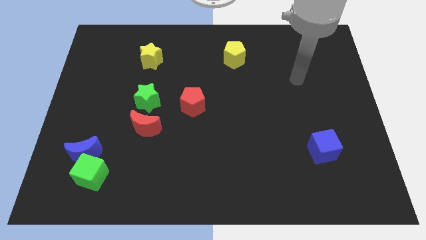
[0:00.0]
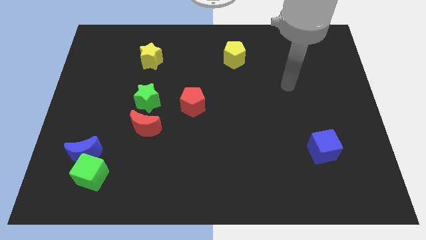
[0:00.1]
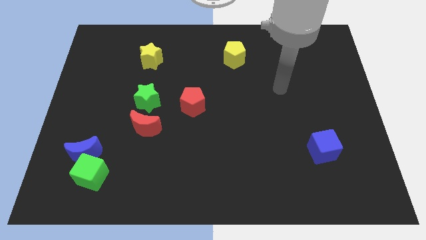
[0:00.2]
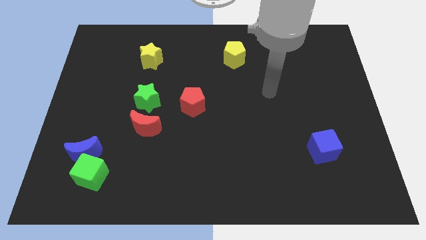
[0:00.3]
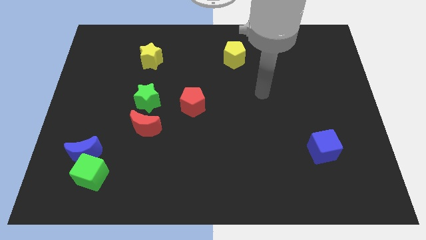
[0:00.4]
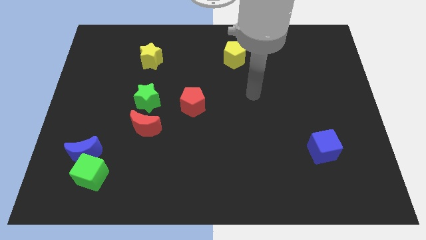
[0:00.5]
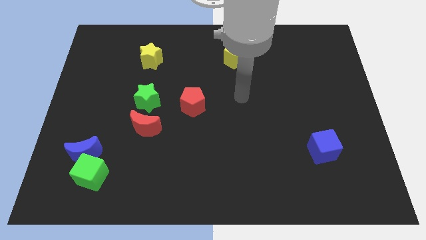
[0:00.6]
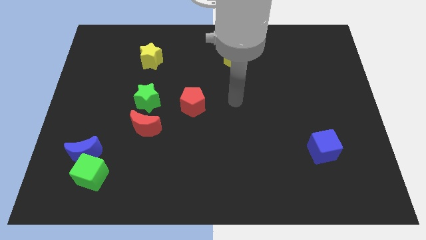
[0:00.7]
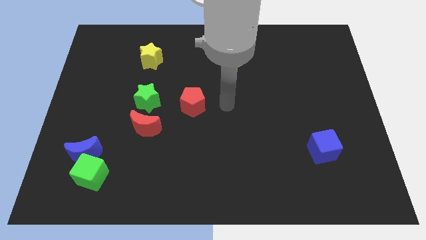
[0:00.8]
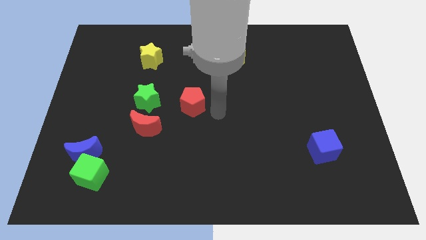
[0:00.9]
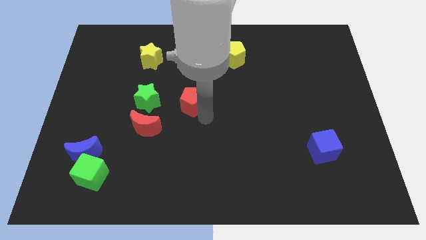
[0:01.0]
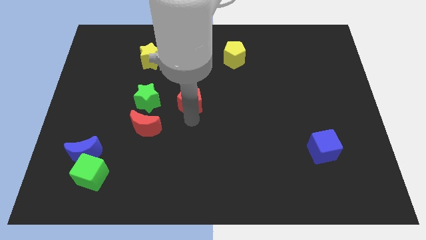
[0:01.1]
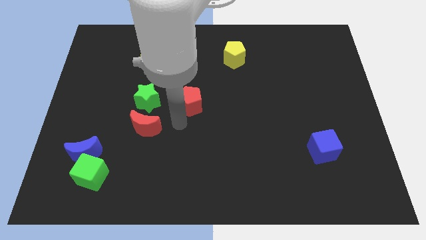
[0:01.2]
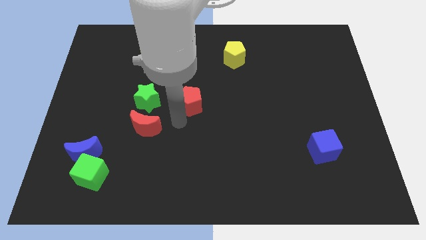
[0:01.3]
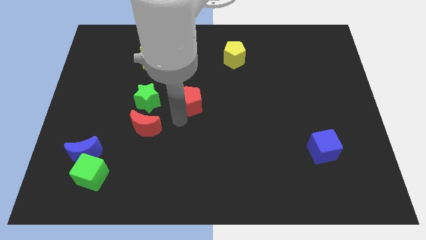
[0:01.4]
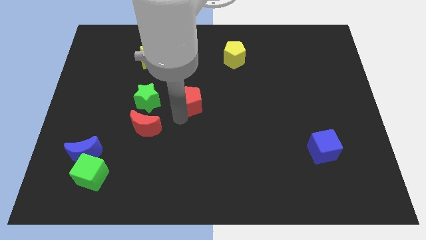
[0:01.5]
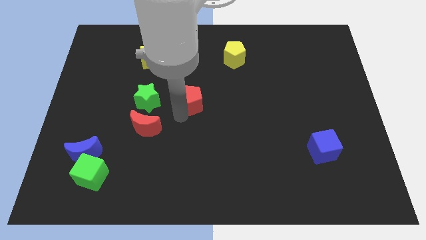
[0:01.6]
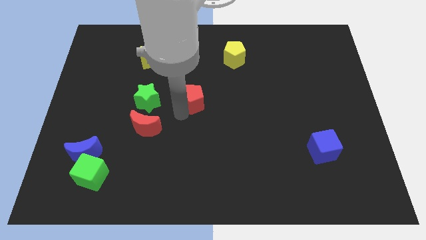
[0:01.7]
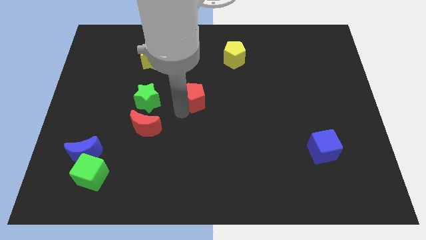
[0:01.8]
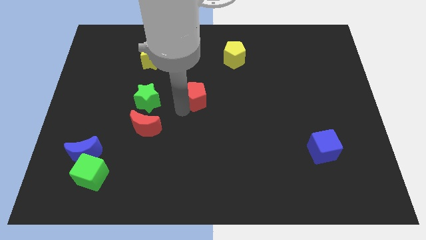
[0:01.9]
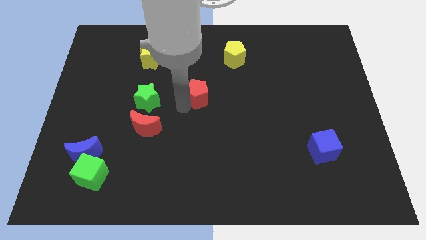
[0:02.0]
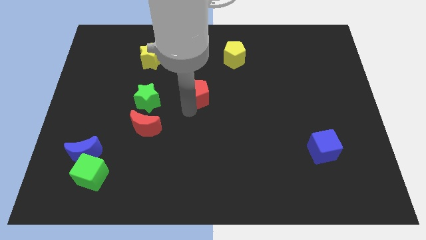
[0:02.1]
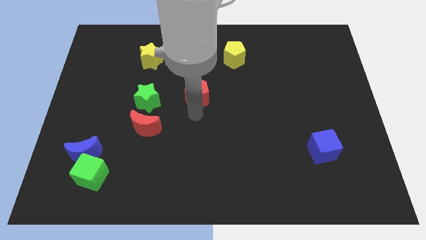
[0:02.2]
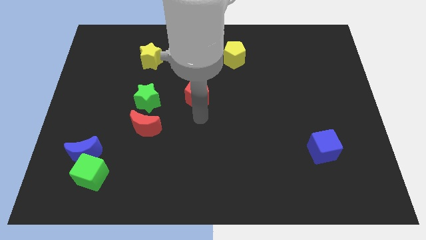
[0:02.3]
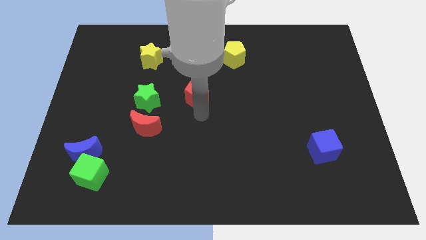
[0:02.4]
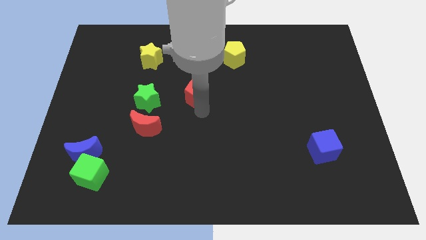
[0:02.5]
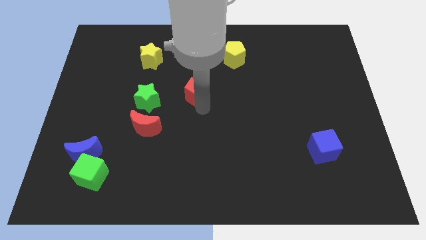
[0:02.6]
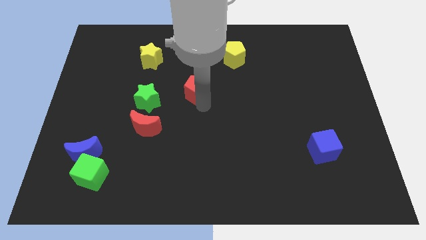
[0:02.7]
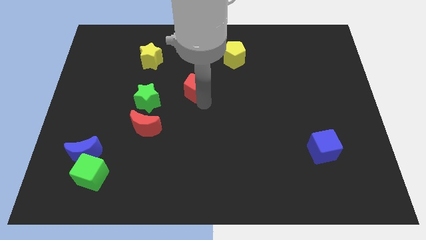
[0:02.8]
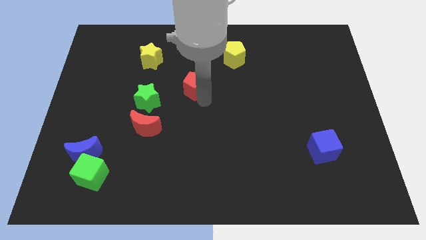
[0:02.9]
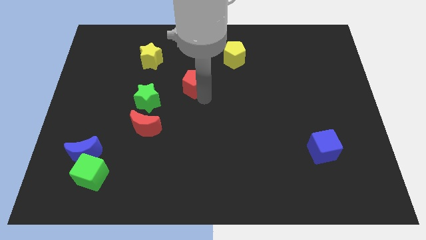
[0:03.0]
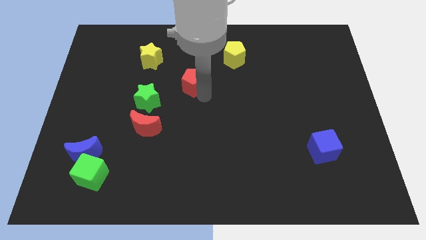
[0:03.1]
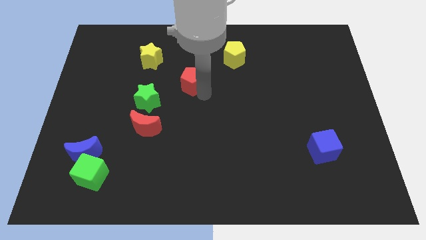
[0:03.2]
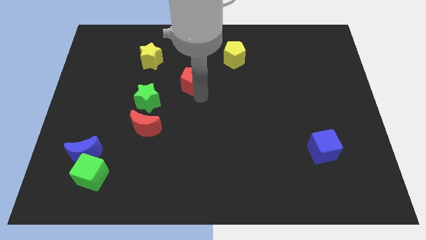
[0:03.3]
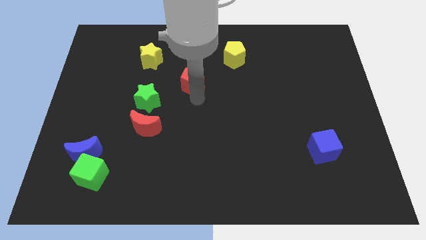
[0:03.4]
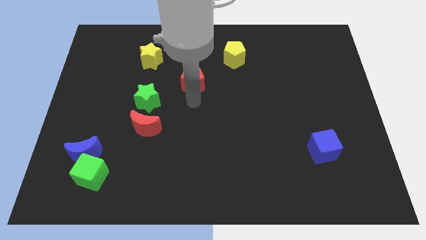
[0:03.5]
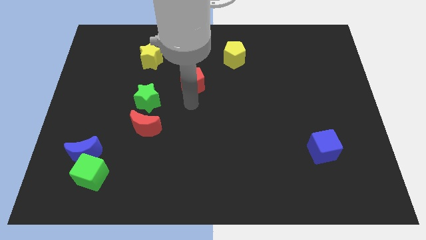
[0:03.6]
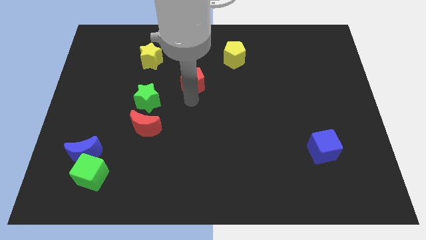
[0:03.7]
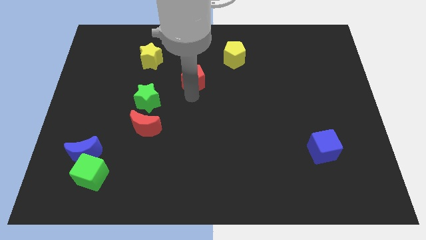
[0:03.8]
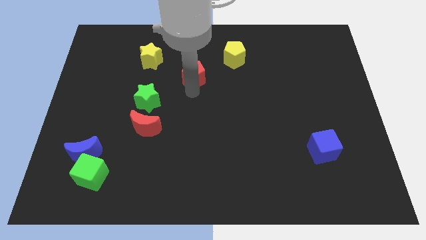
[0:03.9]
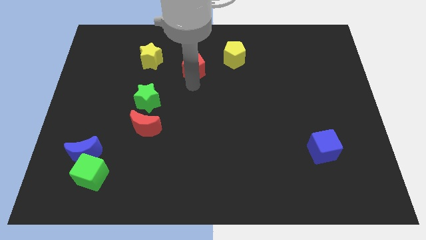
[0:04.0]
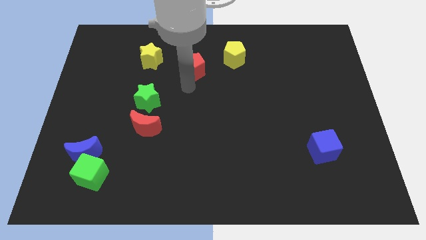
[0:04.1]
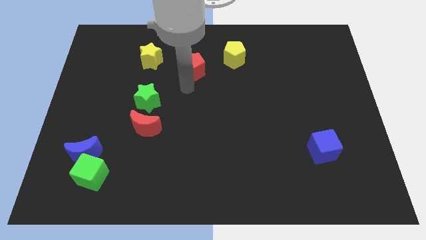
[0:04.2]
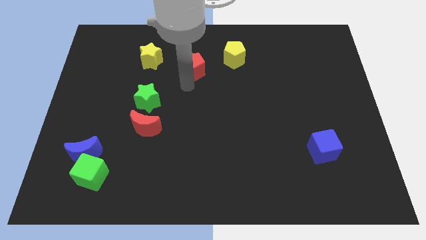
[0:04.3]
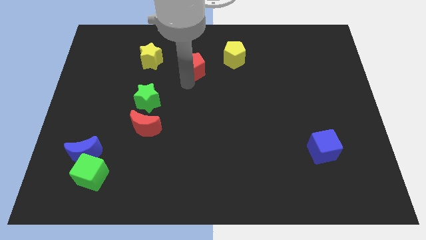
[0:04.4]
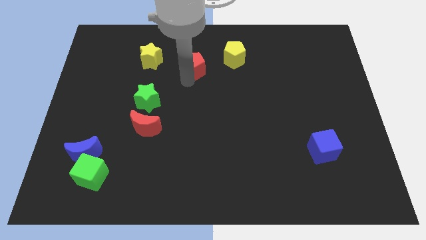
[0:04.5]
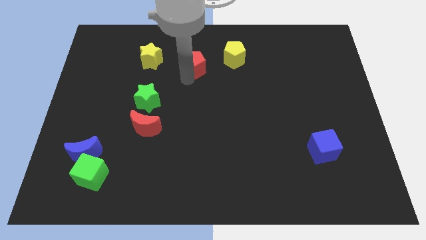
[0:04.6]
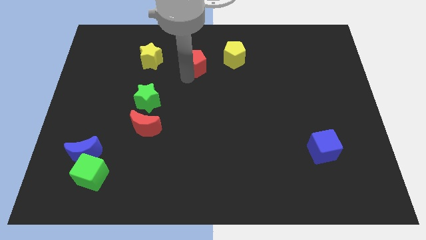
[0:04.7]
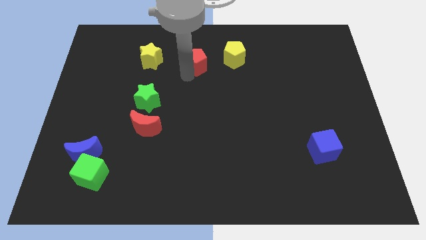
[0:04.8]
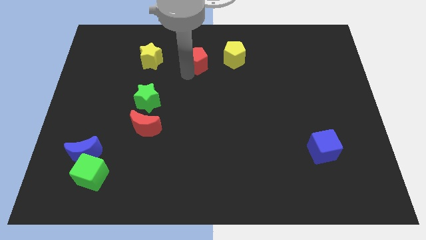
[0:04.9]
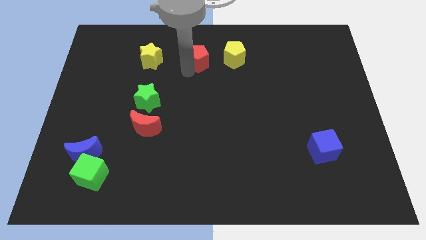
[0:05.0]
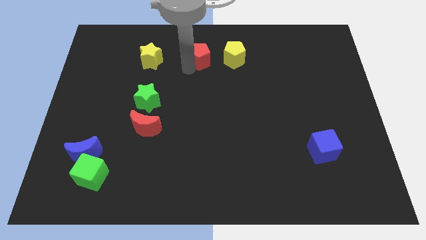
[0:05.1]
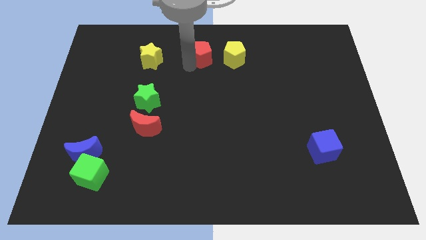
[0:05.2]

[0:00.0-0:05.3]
put the red pentagon to the towards your base

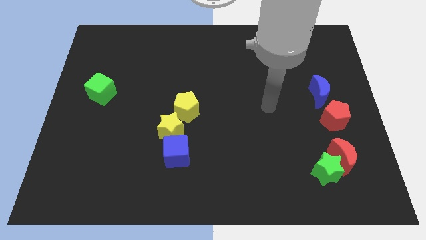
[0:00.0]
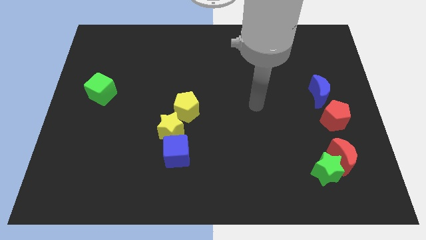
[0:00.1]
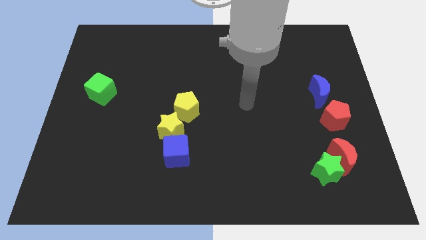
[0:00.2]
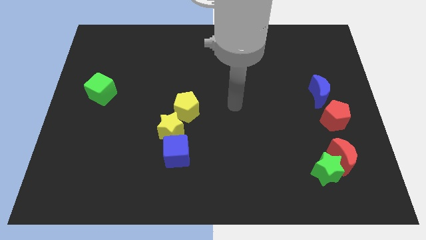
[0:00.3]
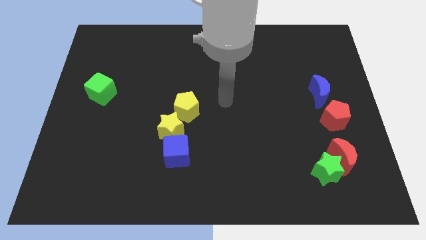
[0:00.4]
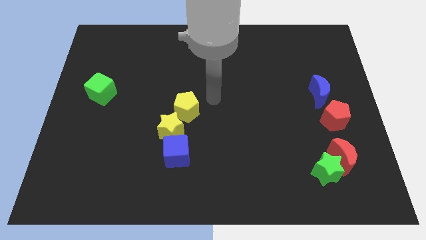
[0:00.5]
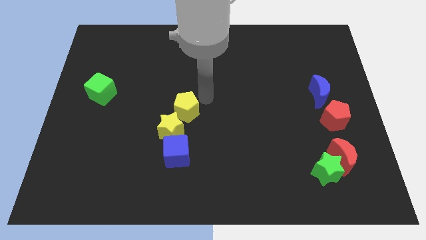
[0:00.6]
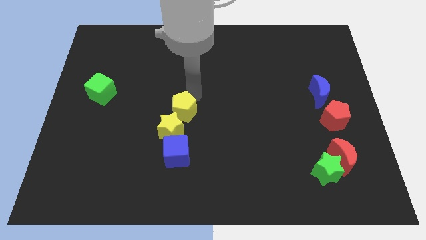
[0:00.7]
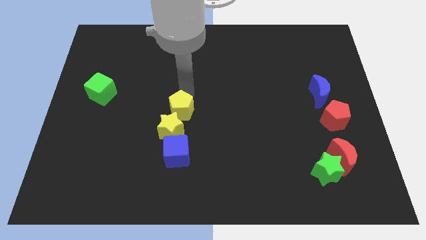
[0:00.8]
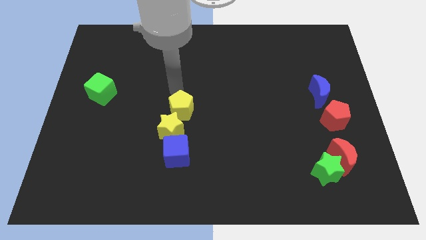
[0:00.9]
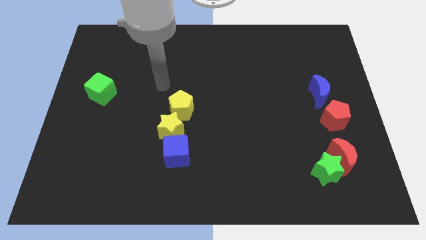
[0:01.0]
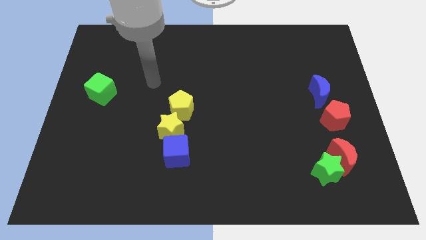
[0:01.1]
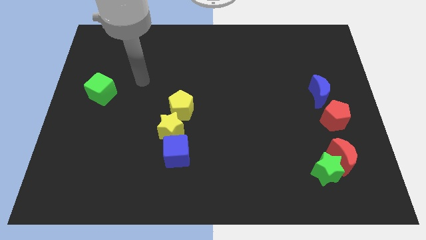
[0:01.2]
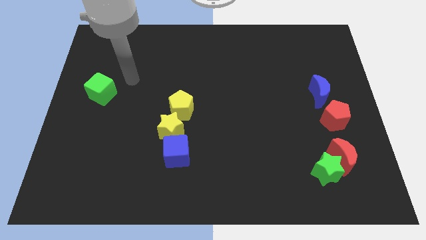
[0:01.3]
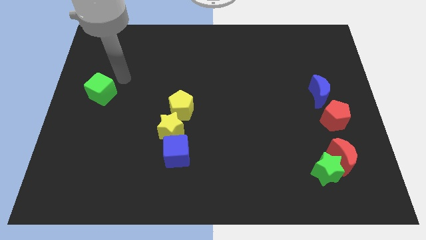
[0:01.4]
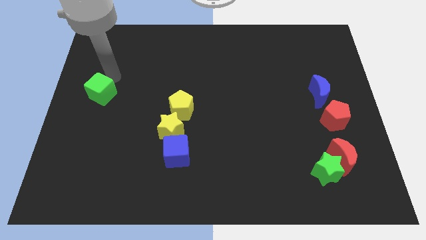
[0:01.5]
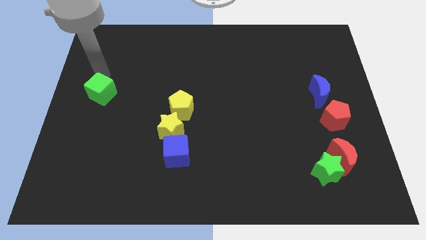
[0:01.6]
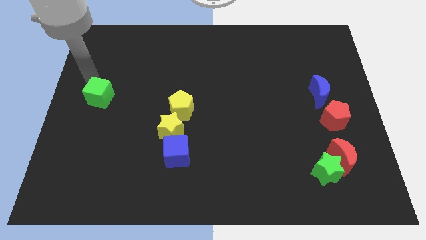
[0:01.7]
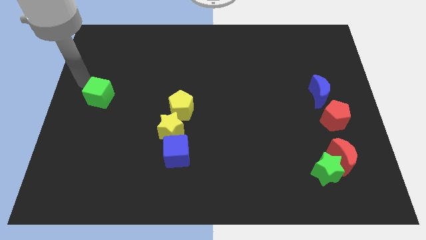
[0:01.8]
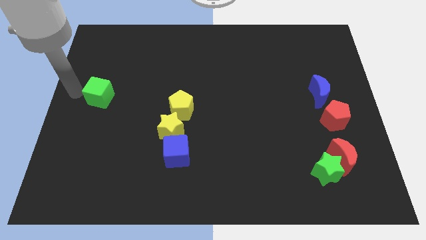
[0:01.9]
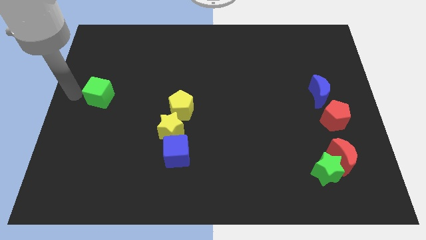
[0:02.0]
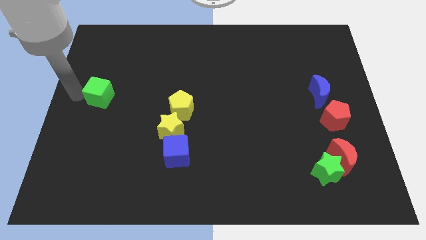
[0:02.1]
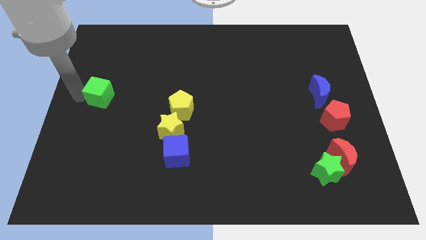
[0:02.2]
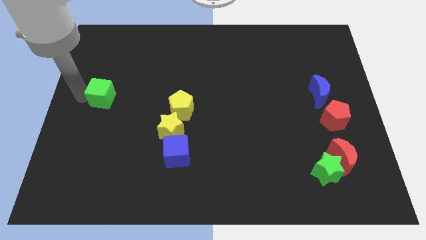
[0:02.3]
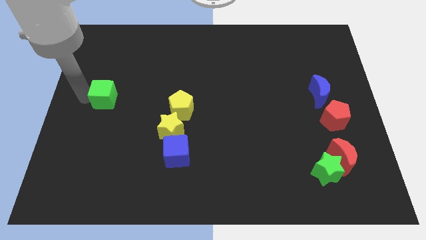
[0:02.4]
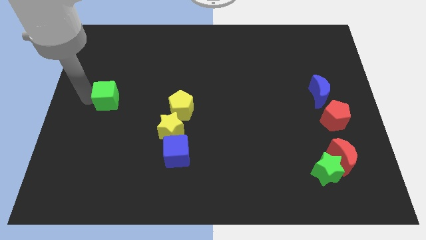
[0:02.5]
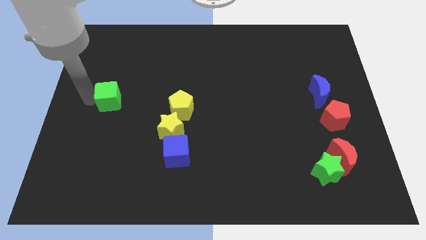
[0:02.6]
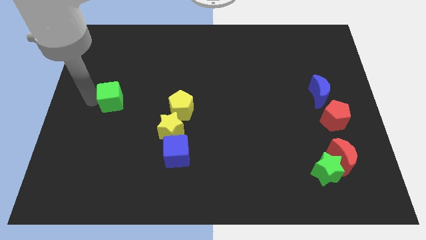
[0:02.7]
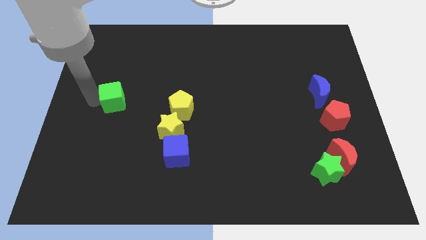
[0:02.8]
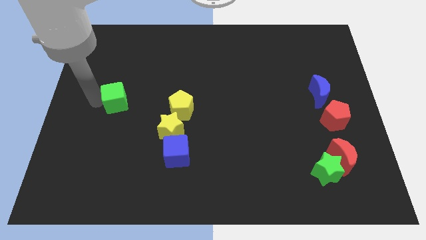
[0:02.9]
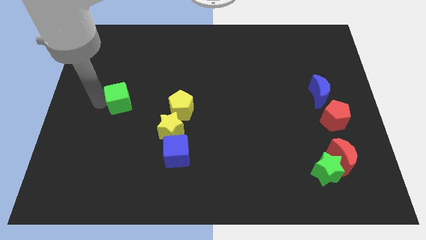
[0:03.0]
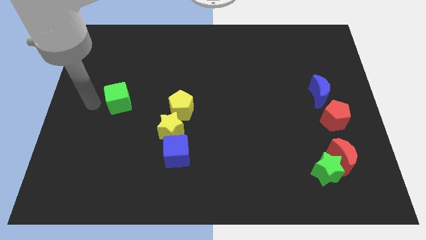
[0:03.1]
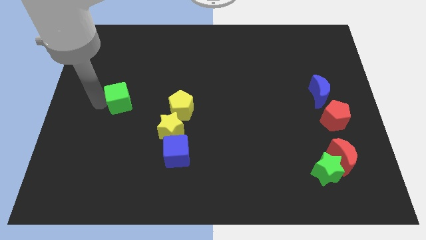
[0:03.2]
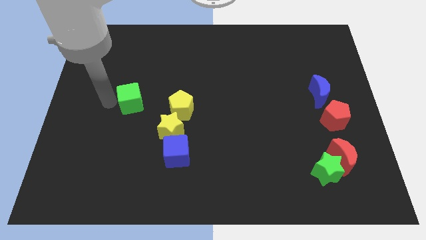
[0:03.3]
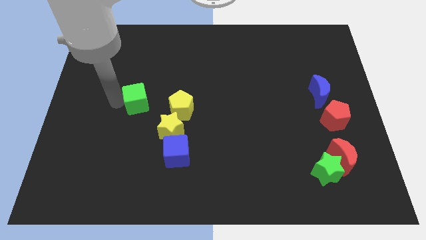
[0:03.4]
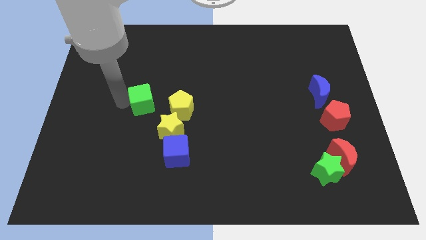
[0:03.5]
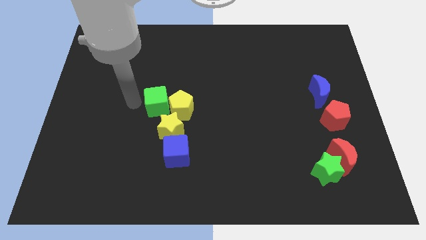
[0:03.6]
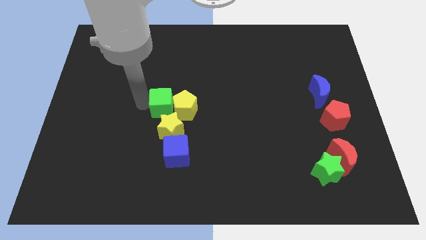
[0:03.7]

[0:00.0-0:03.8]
push the green cube to the middle of the board
